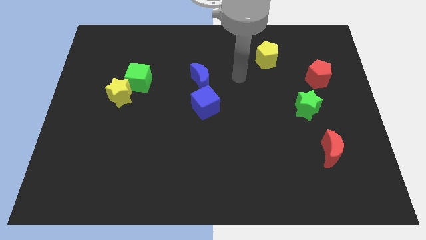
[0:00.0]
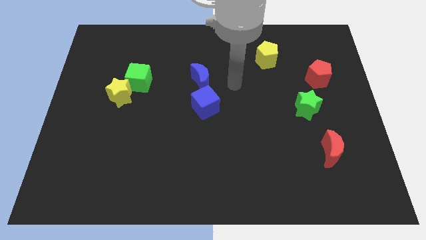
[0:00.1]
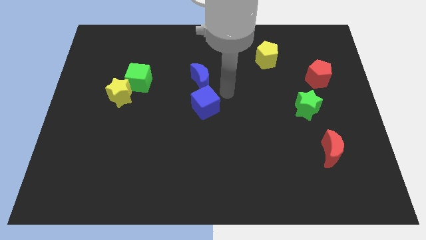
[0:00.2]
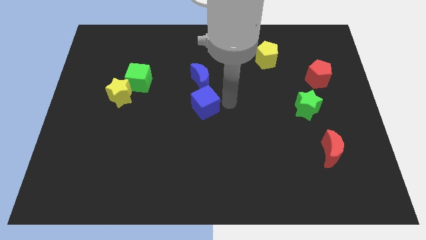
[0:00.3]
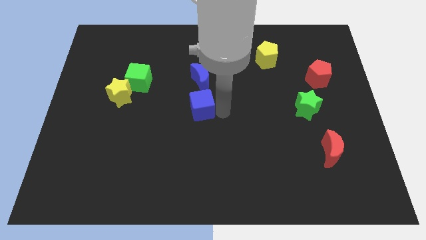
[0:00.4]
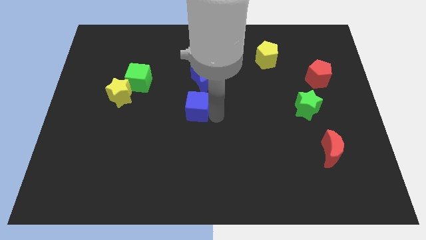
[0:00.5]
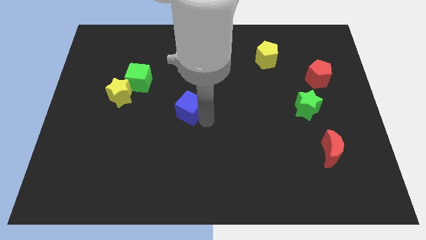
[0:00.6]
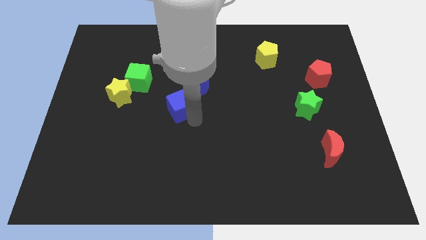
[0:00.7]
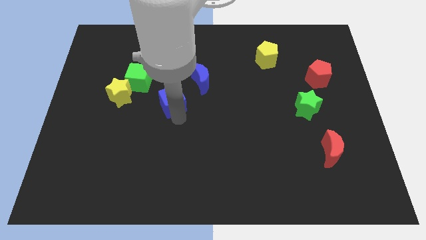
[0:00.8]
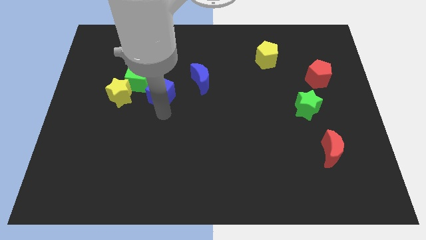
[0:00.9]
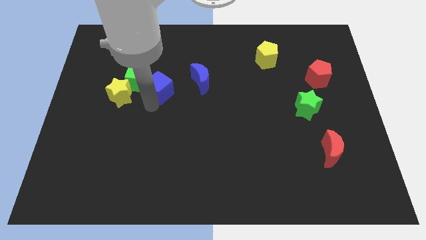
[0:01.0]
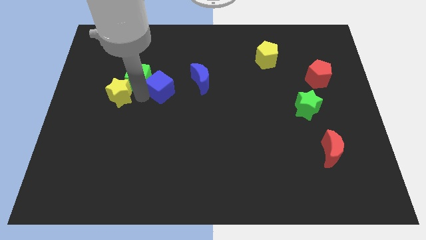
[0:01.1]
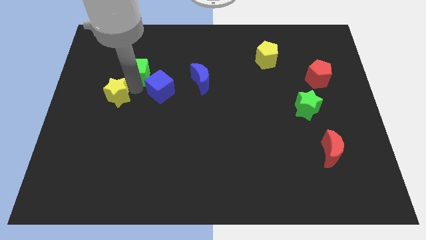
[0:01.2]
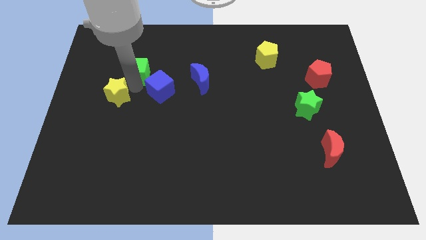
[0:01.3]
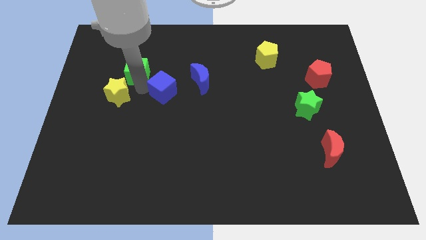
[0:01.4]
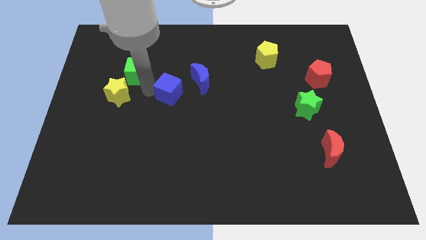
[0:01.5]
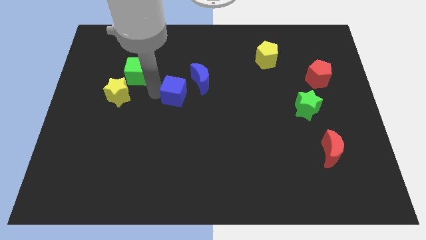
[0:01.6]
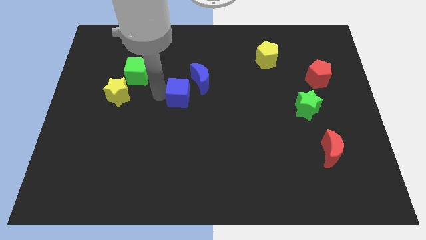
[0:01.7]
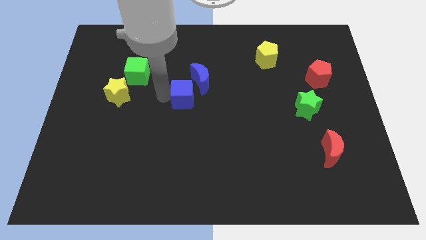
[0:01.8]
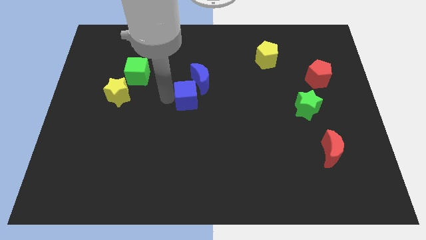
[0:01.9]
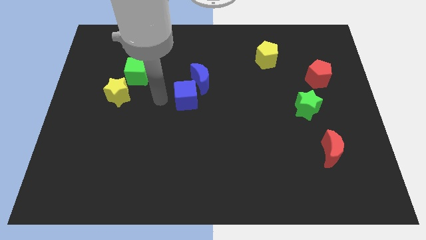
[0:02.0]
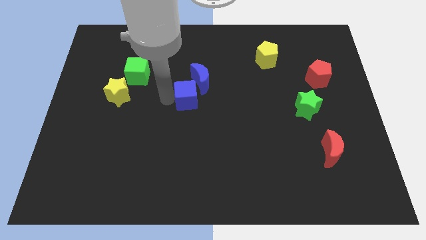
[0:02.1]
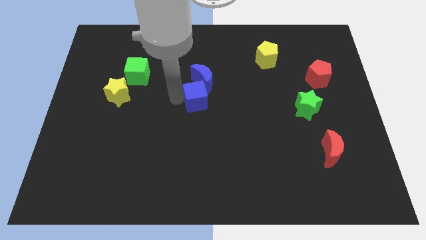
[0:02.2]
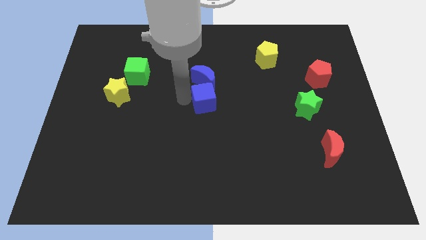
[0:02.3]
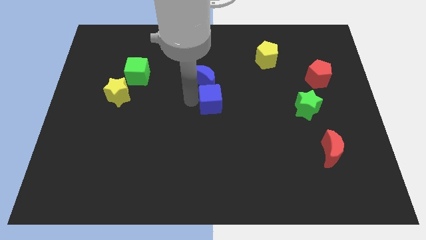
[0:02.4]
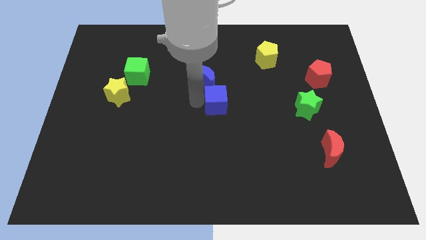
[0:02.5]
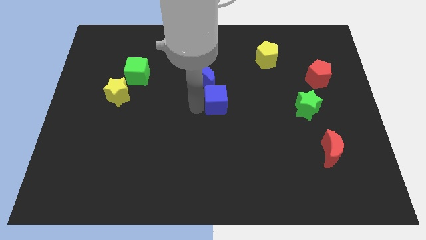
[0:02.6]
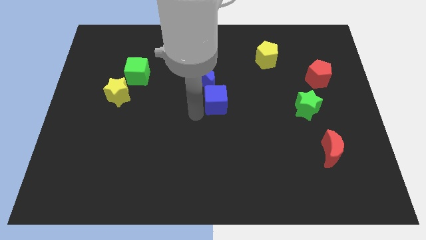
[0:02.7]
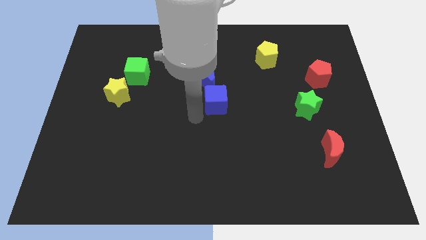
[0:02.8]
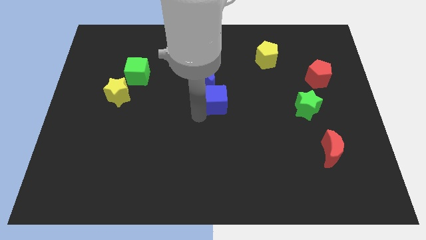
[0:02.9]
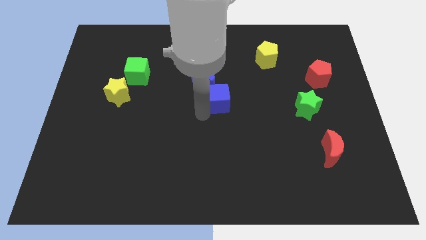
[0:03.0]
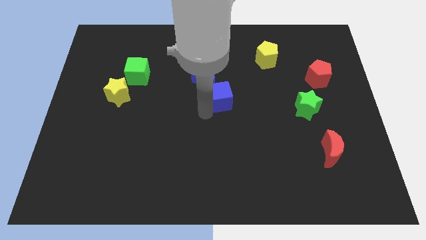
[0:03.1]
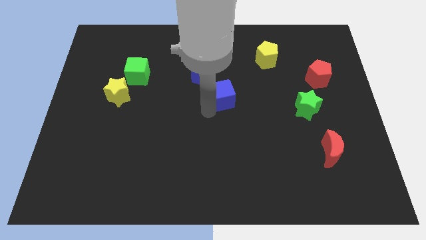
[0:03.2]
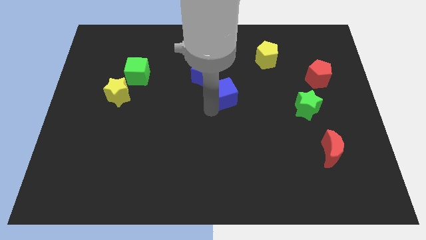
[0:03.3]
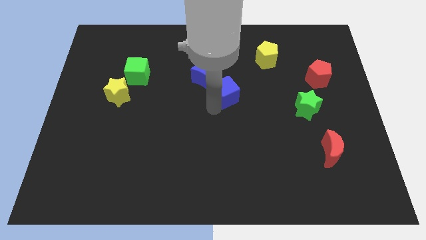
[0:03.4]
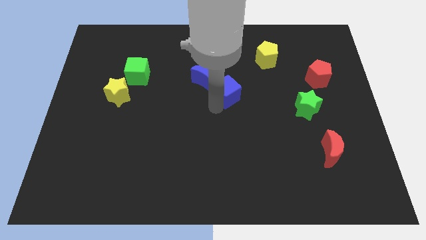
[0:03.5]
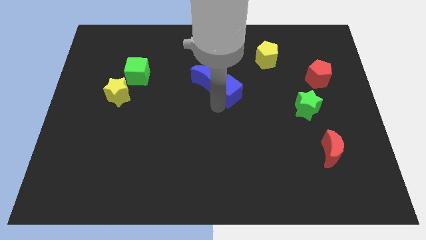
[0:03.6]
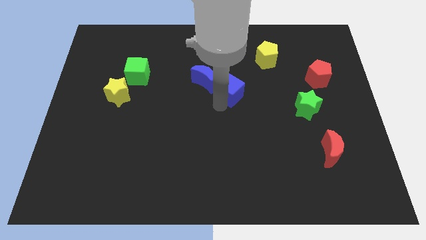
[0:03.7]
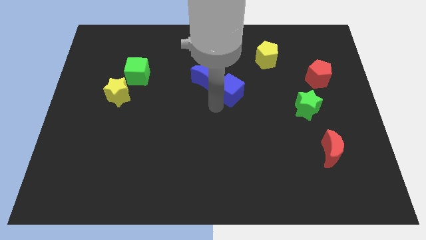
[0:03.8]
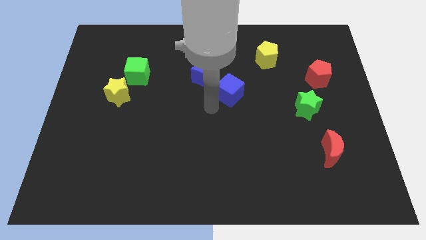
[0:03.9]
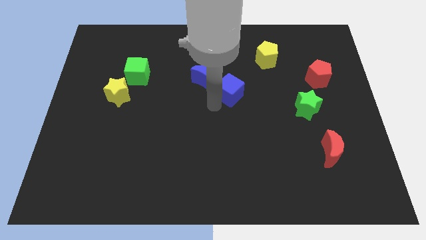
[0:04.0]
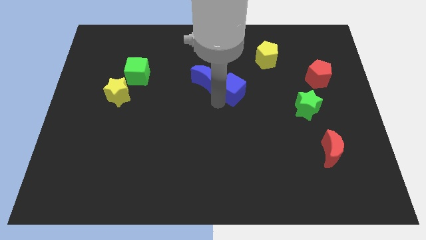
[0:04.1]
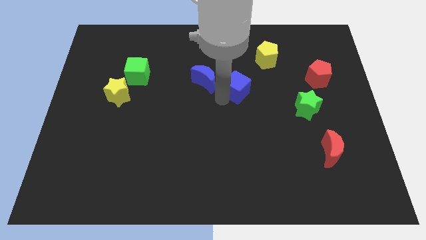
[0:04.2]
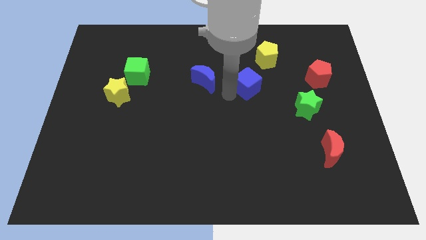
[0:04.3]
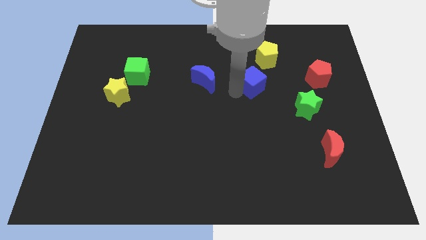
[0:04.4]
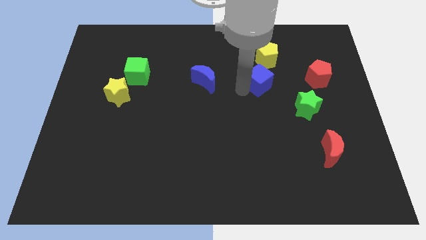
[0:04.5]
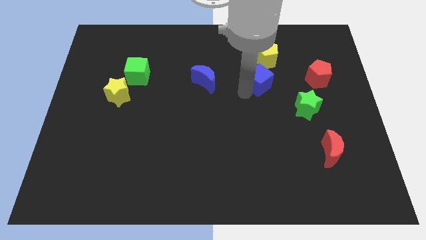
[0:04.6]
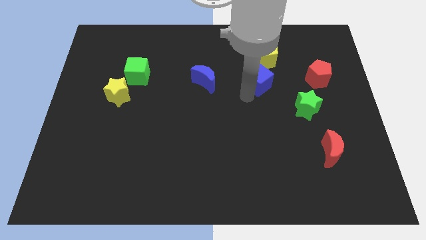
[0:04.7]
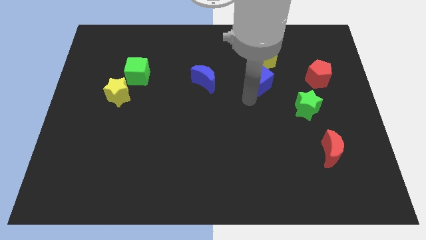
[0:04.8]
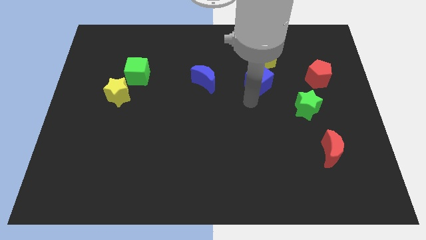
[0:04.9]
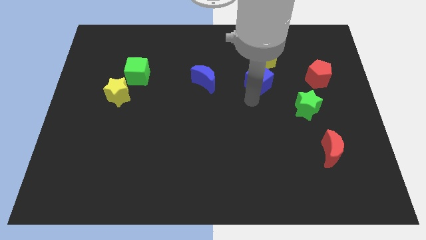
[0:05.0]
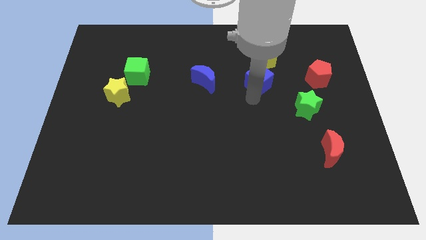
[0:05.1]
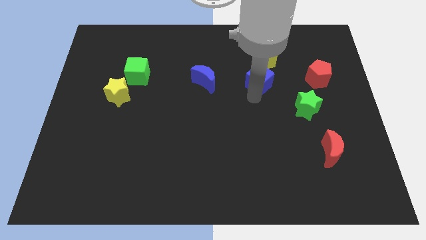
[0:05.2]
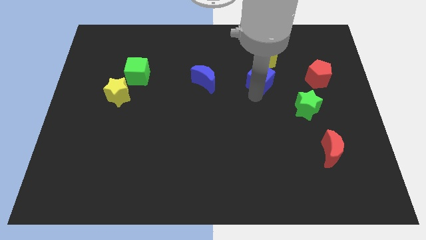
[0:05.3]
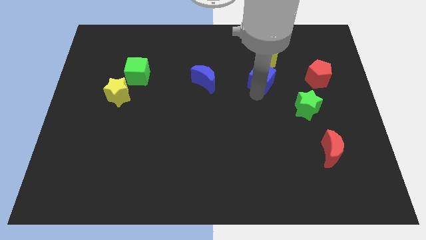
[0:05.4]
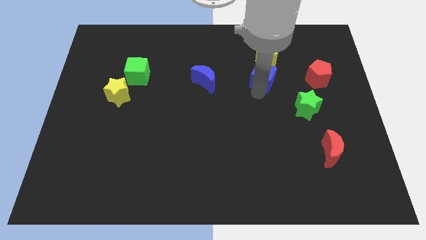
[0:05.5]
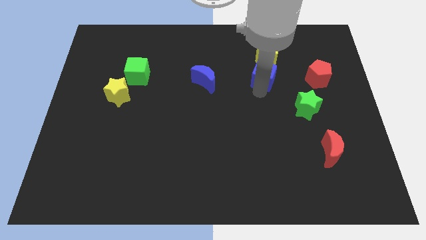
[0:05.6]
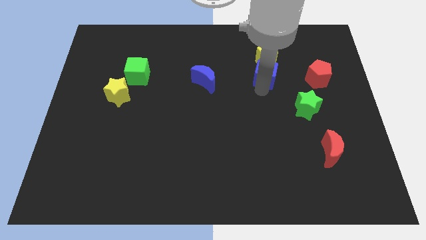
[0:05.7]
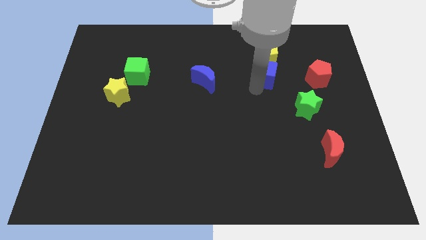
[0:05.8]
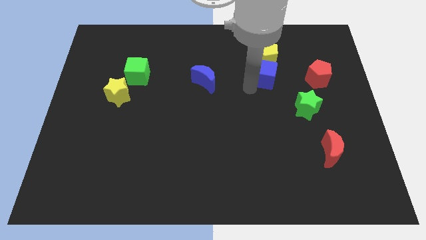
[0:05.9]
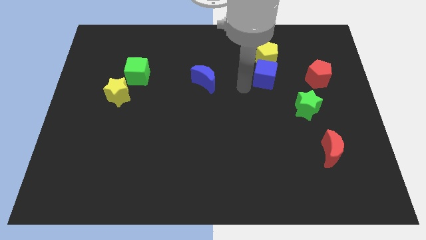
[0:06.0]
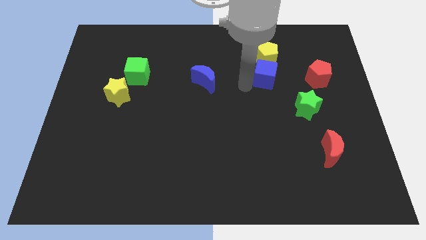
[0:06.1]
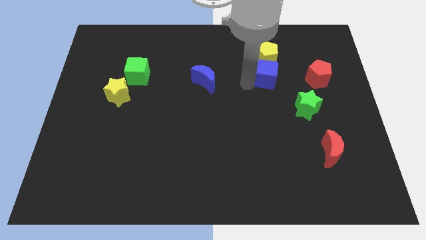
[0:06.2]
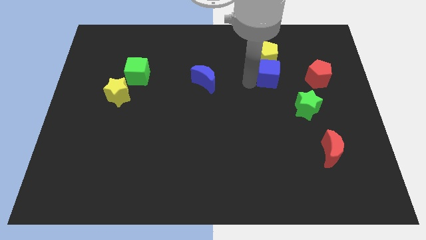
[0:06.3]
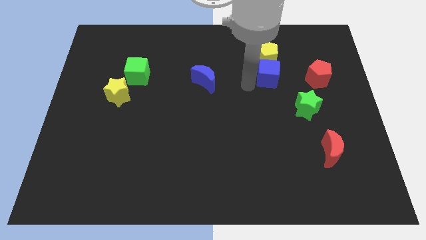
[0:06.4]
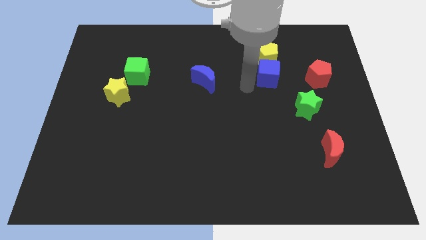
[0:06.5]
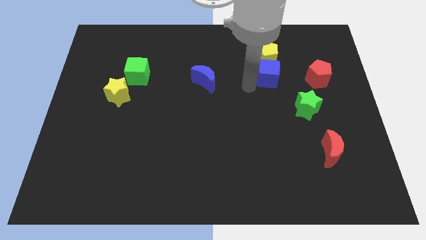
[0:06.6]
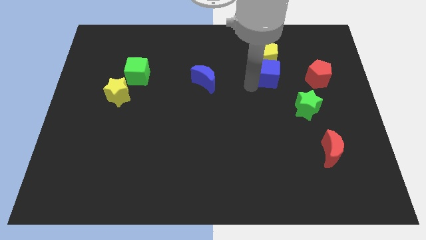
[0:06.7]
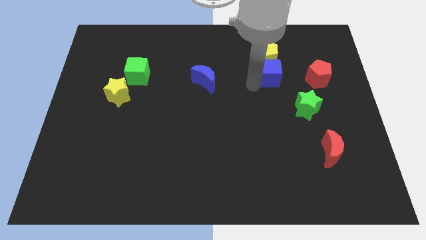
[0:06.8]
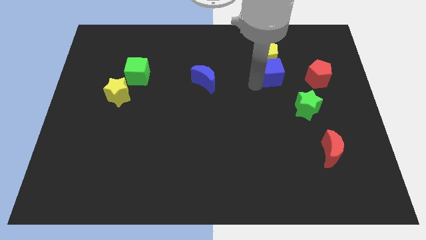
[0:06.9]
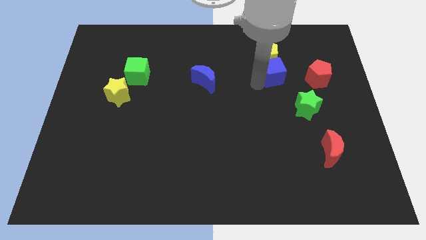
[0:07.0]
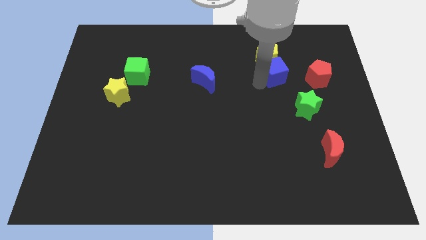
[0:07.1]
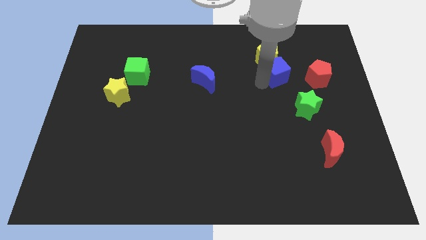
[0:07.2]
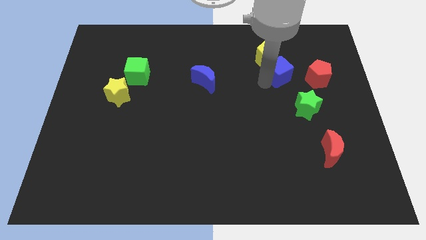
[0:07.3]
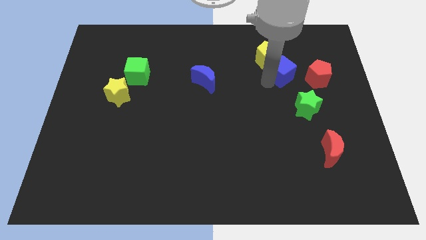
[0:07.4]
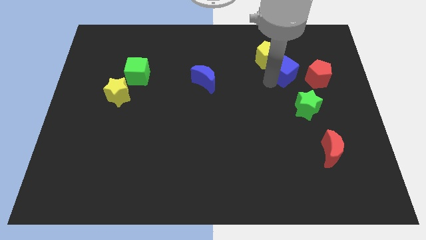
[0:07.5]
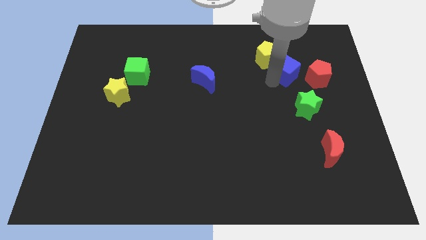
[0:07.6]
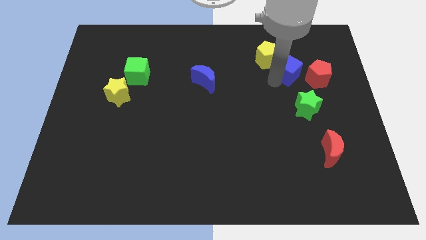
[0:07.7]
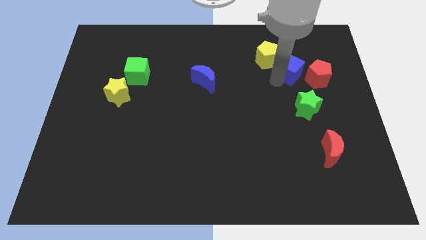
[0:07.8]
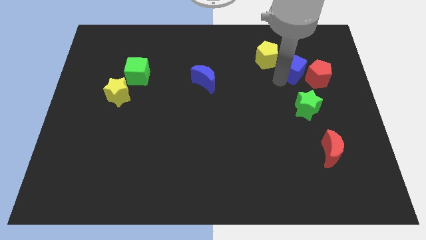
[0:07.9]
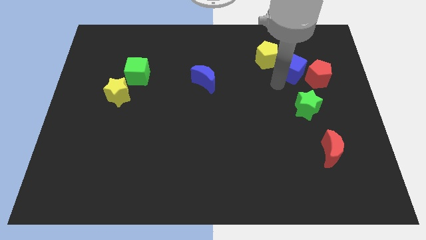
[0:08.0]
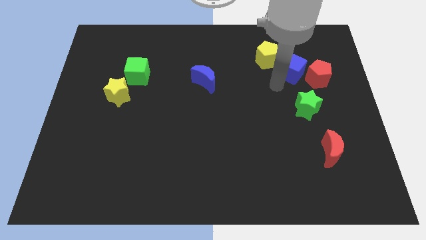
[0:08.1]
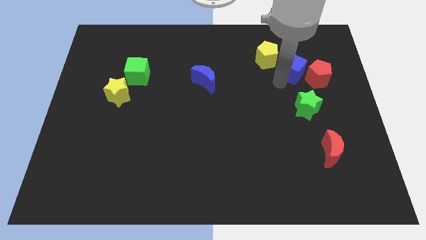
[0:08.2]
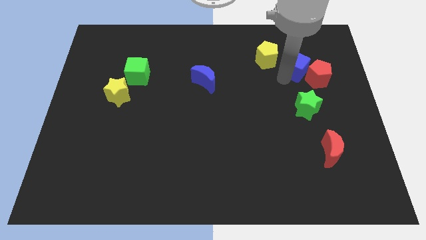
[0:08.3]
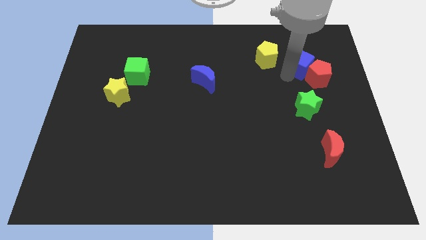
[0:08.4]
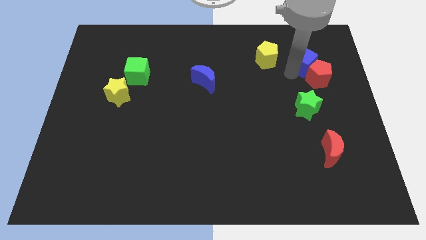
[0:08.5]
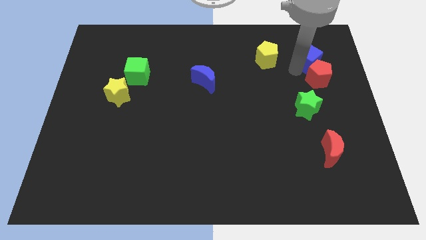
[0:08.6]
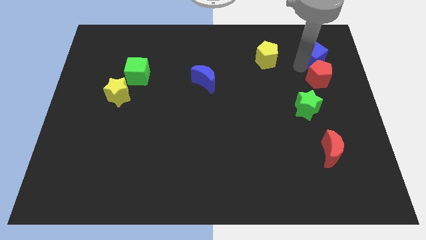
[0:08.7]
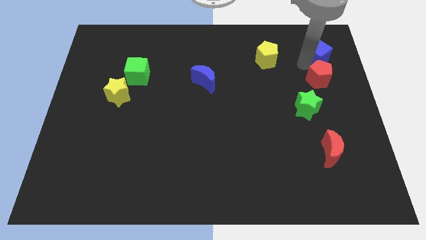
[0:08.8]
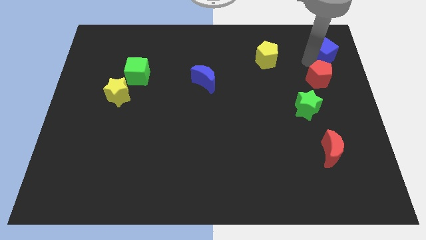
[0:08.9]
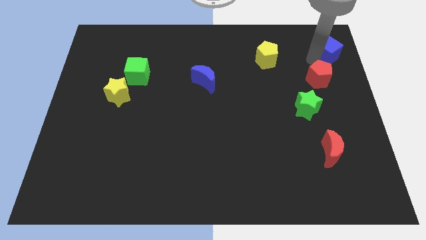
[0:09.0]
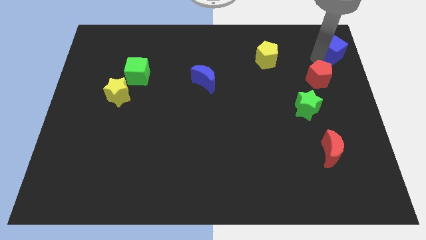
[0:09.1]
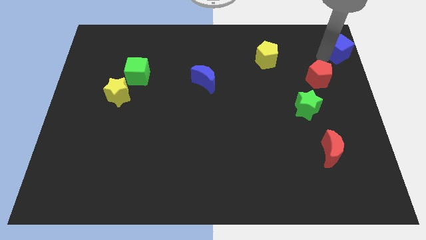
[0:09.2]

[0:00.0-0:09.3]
move the blue cube to the top right
